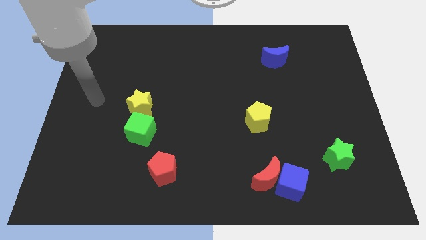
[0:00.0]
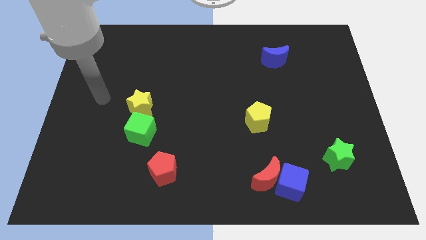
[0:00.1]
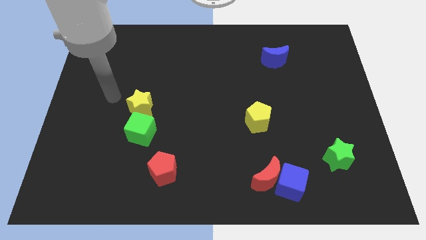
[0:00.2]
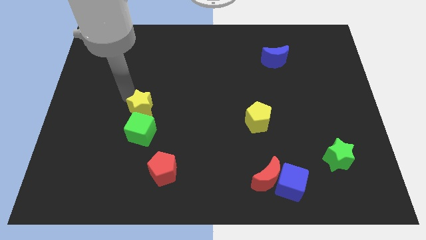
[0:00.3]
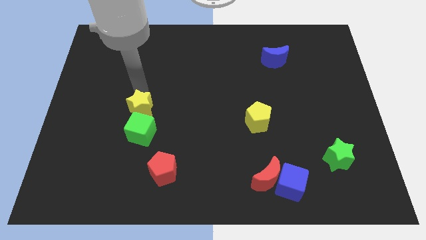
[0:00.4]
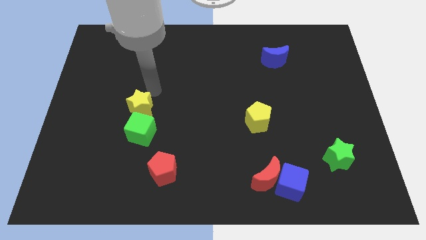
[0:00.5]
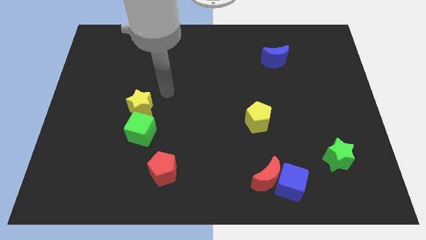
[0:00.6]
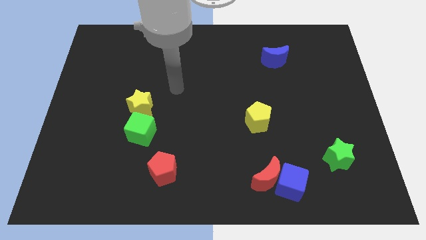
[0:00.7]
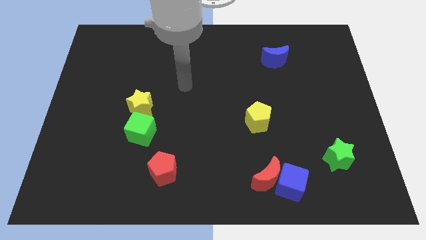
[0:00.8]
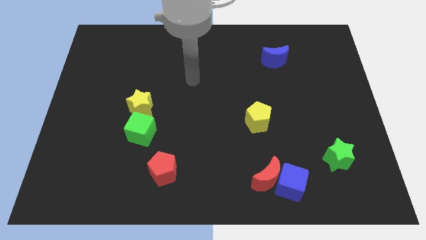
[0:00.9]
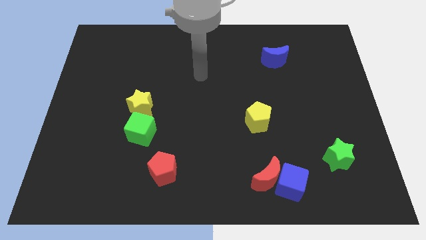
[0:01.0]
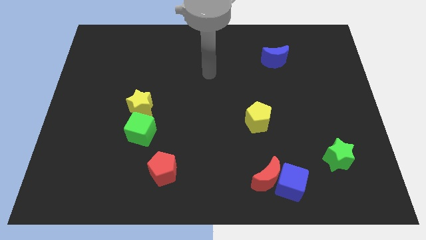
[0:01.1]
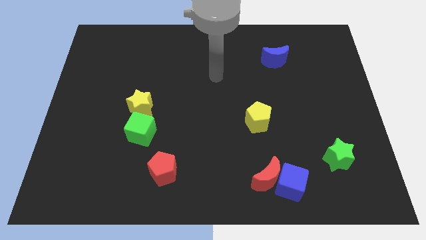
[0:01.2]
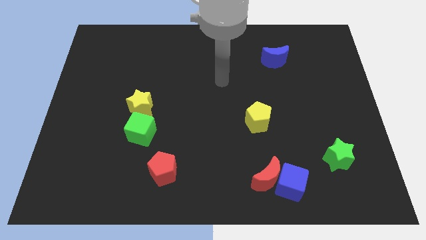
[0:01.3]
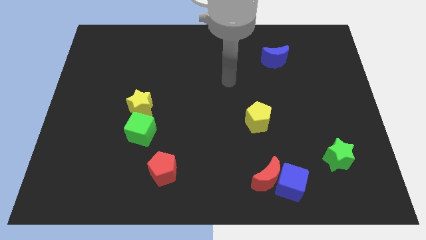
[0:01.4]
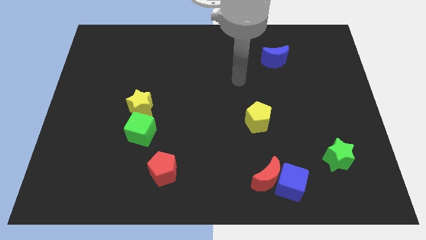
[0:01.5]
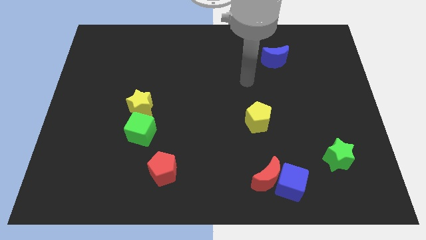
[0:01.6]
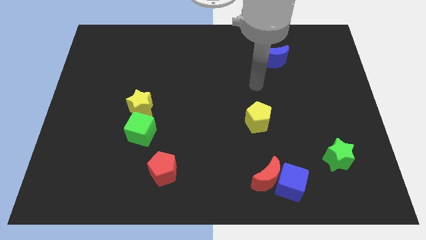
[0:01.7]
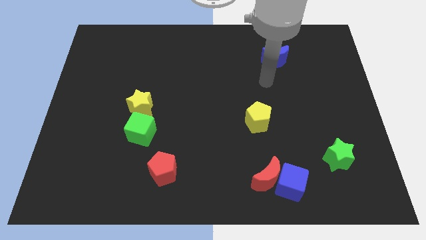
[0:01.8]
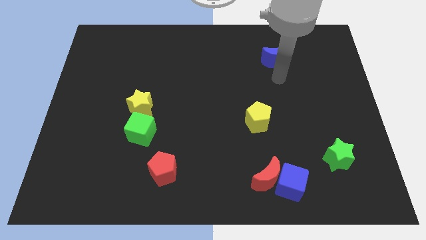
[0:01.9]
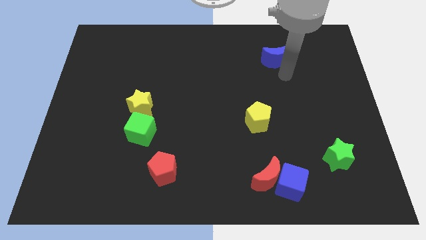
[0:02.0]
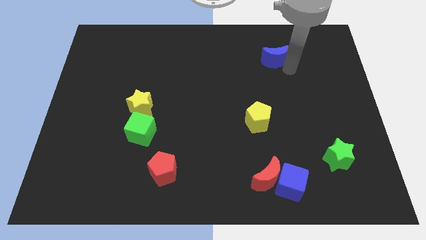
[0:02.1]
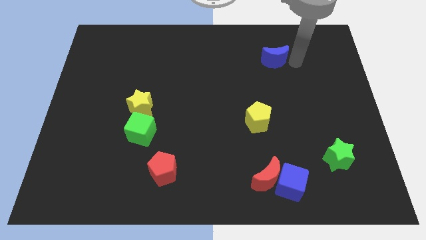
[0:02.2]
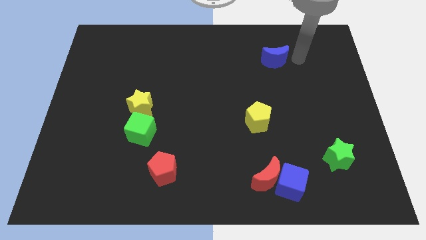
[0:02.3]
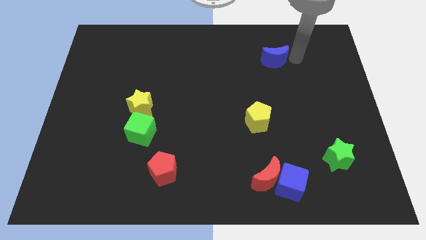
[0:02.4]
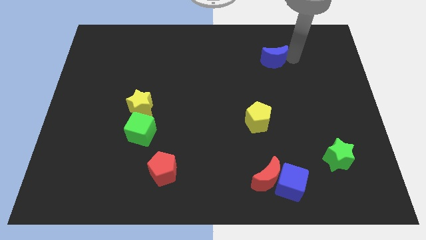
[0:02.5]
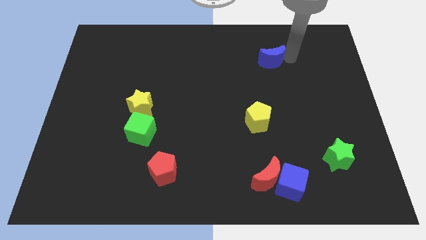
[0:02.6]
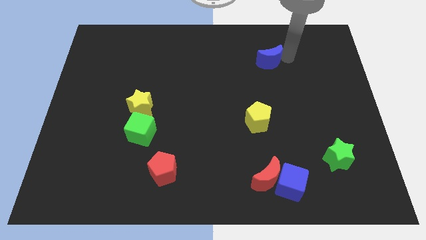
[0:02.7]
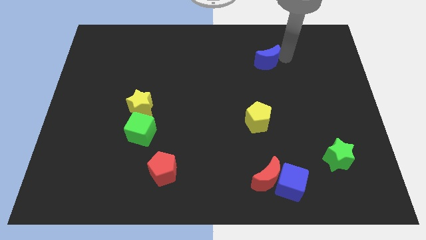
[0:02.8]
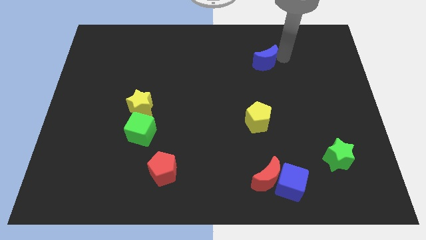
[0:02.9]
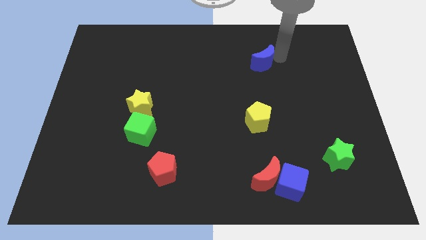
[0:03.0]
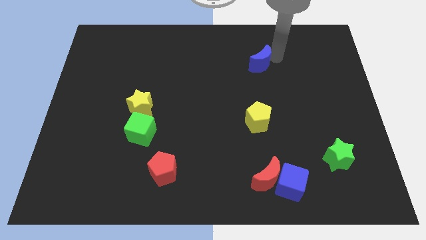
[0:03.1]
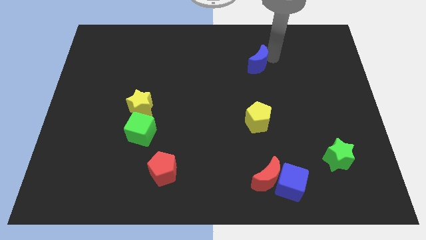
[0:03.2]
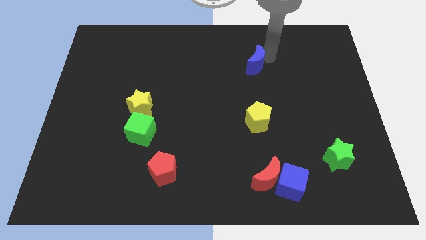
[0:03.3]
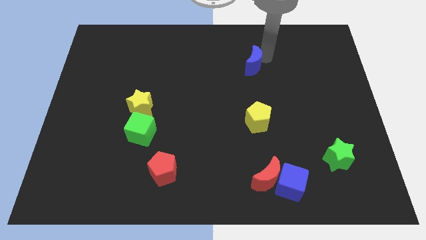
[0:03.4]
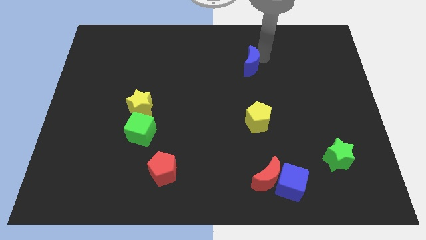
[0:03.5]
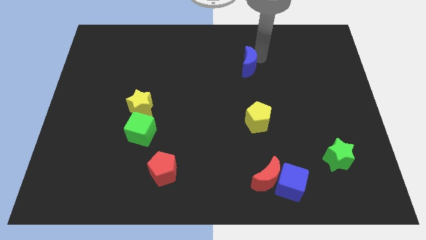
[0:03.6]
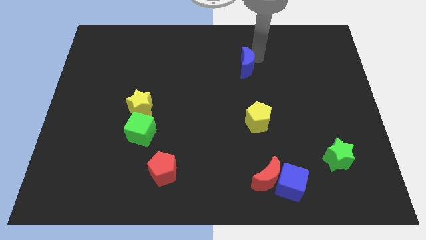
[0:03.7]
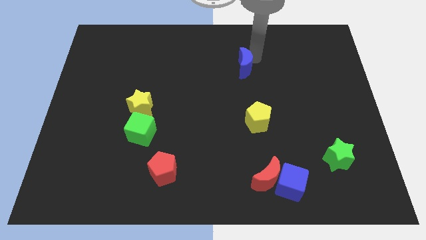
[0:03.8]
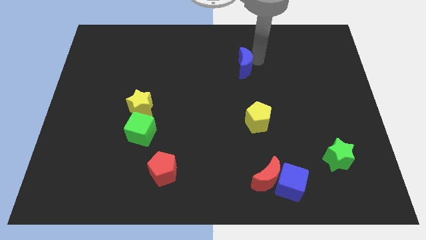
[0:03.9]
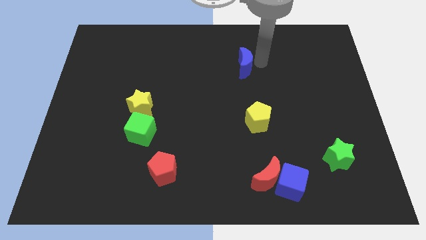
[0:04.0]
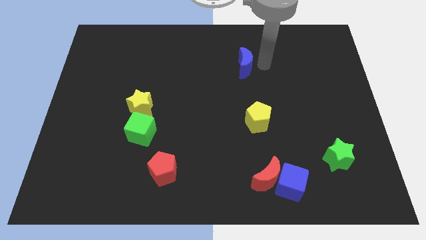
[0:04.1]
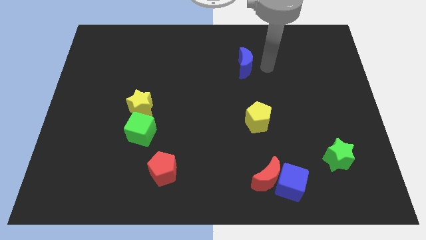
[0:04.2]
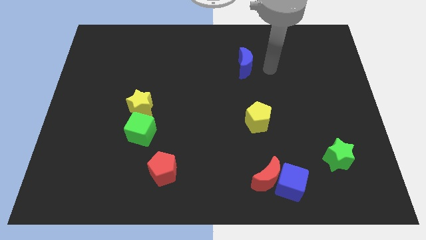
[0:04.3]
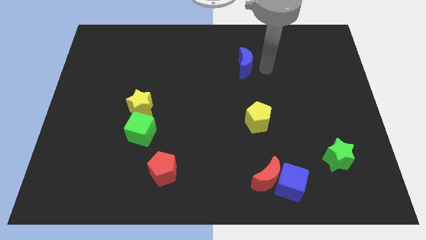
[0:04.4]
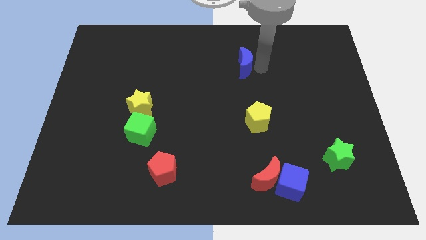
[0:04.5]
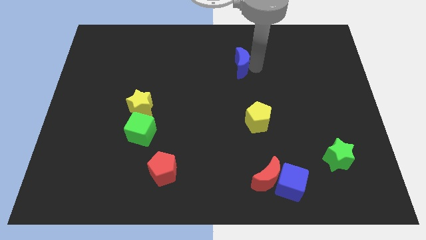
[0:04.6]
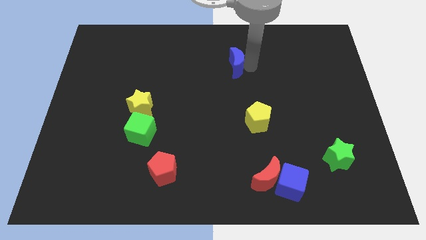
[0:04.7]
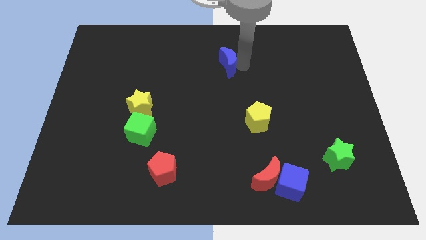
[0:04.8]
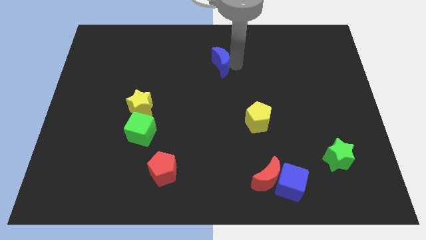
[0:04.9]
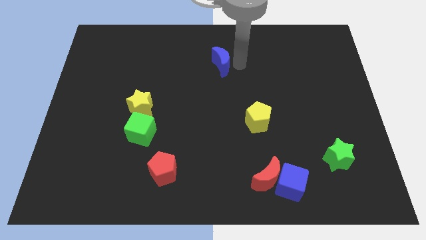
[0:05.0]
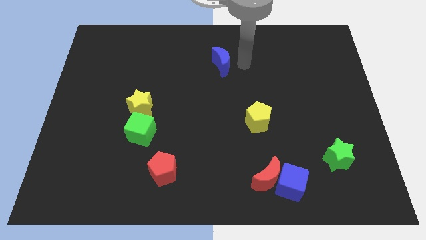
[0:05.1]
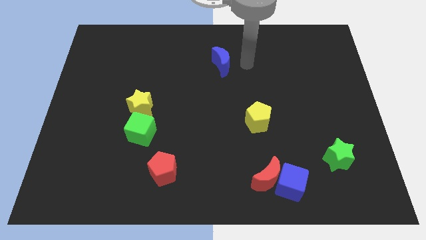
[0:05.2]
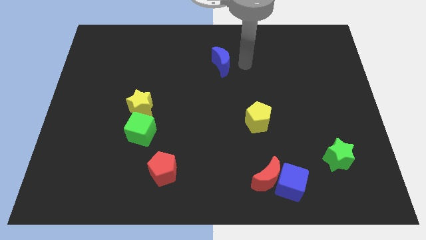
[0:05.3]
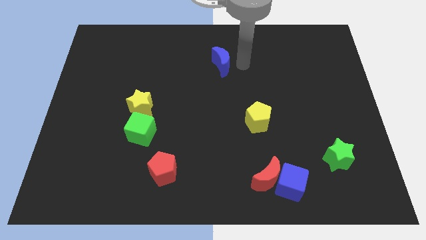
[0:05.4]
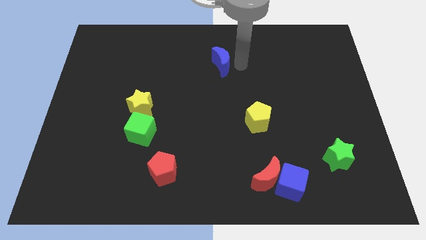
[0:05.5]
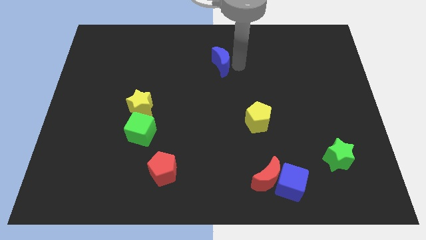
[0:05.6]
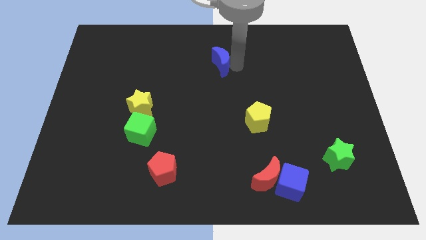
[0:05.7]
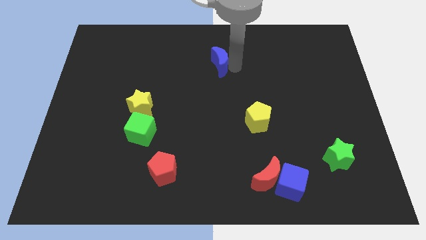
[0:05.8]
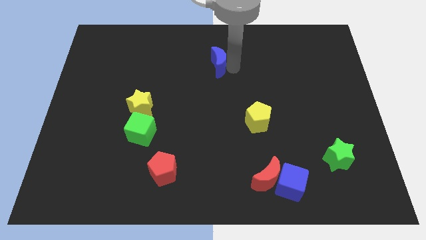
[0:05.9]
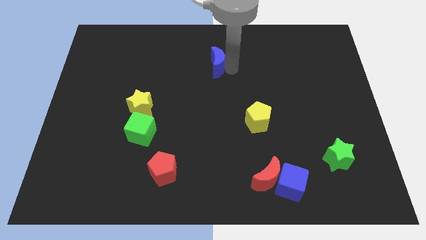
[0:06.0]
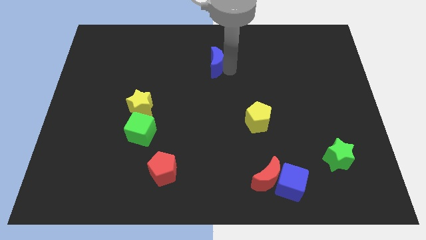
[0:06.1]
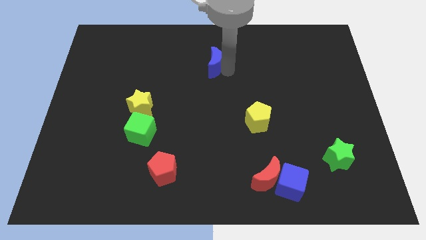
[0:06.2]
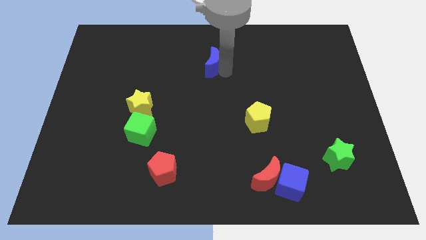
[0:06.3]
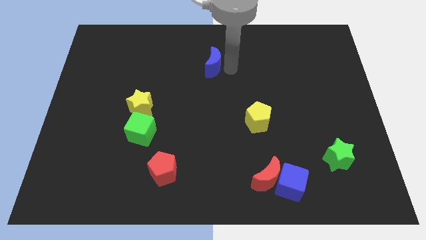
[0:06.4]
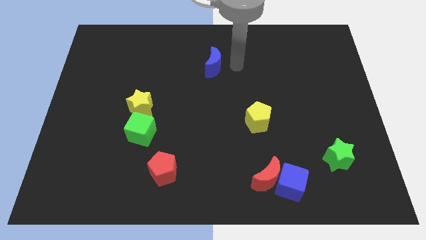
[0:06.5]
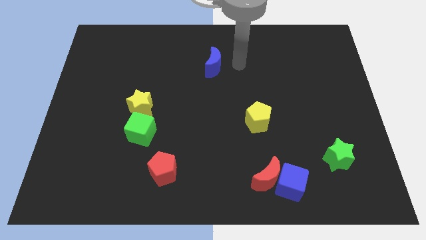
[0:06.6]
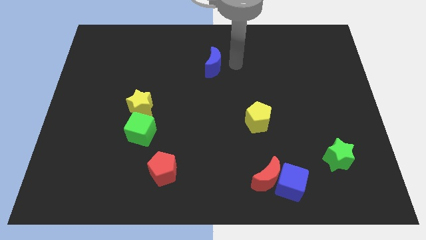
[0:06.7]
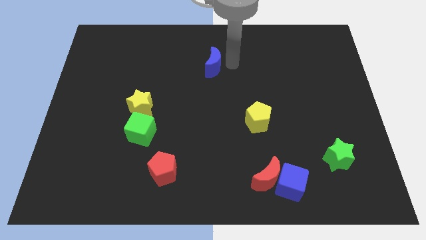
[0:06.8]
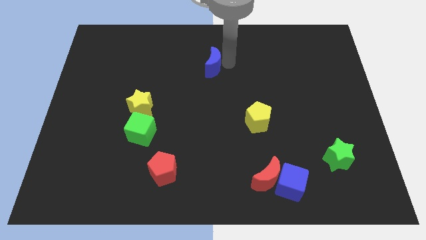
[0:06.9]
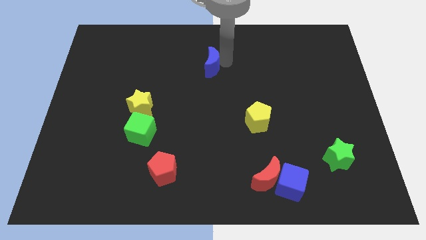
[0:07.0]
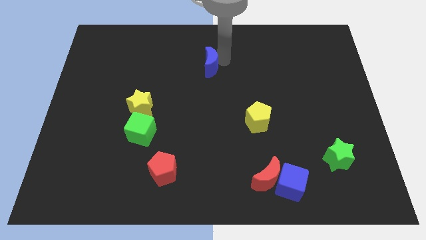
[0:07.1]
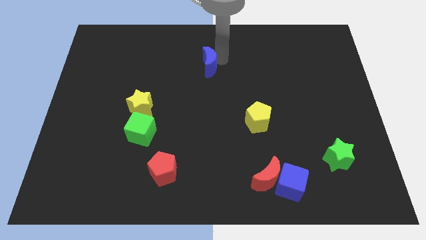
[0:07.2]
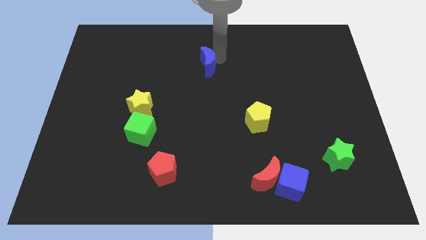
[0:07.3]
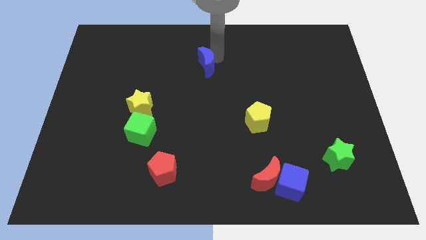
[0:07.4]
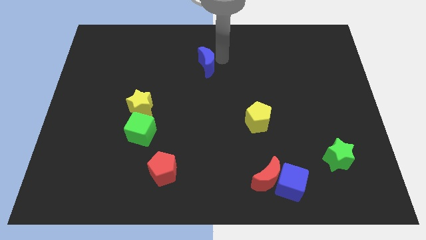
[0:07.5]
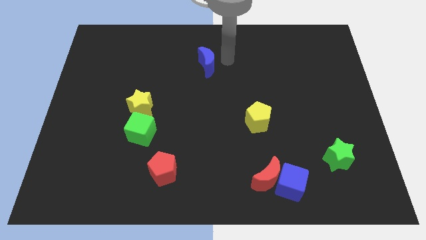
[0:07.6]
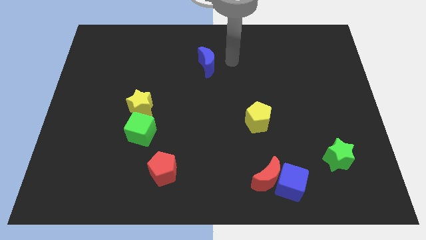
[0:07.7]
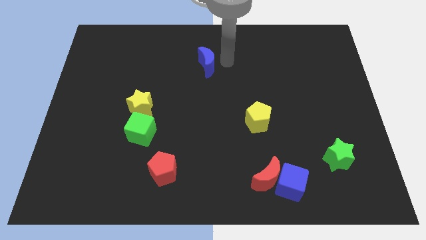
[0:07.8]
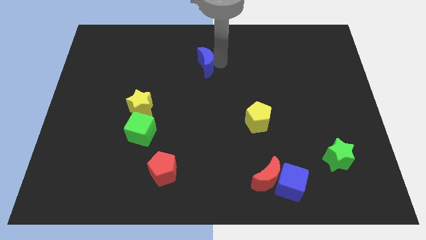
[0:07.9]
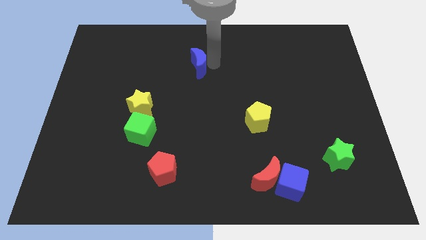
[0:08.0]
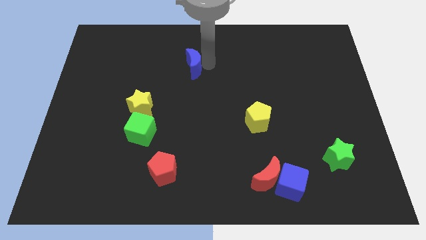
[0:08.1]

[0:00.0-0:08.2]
move the blue moon left
